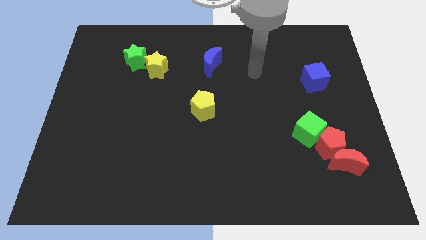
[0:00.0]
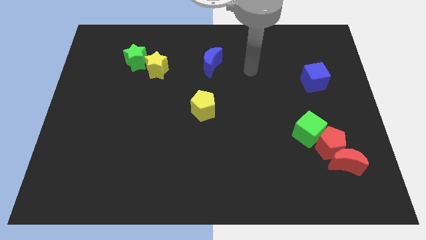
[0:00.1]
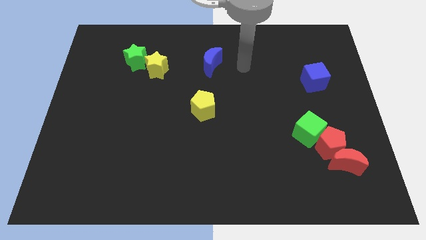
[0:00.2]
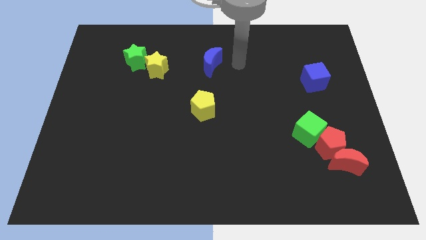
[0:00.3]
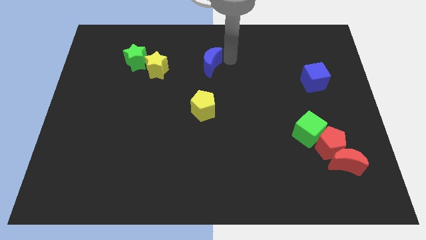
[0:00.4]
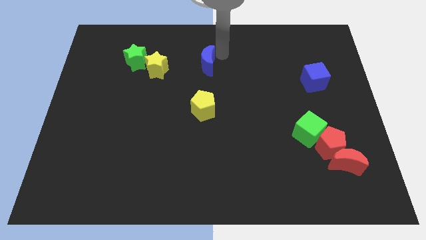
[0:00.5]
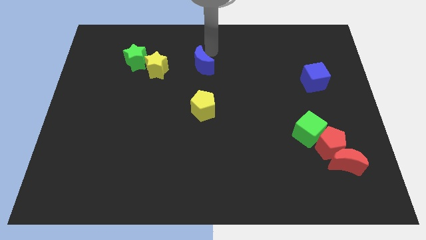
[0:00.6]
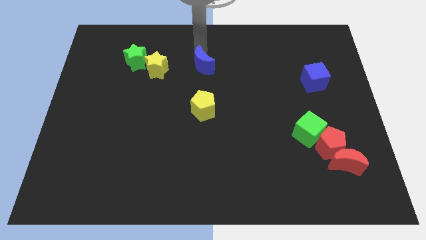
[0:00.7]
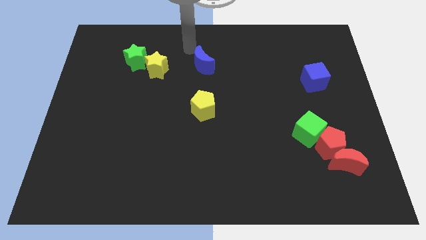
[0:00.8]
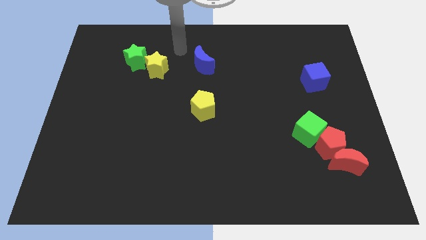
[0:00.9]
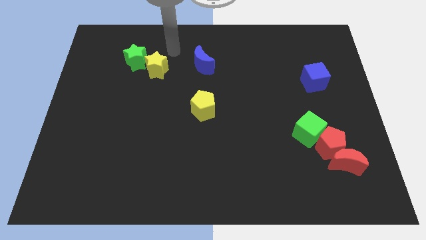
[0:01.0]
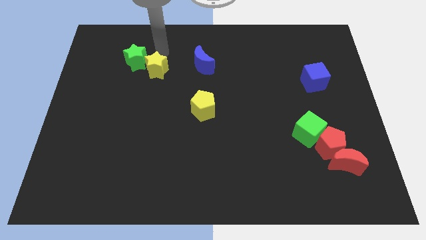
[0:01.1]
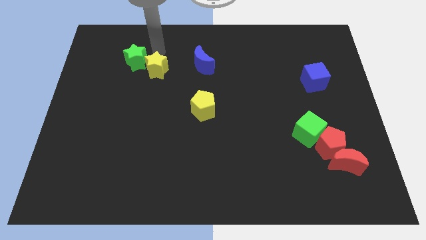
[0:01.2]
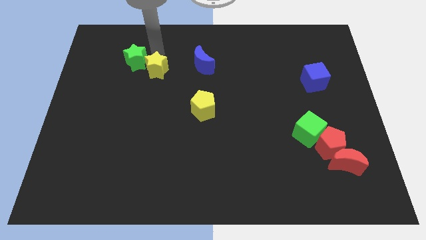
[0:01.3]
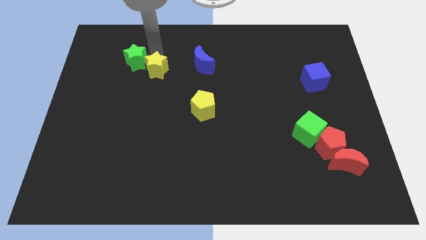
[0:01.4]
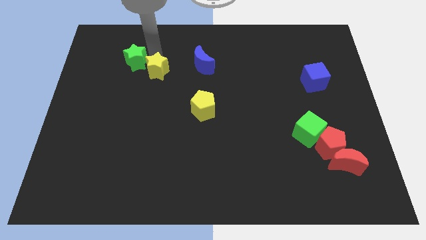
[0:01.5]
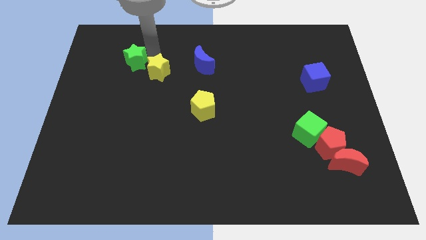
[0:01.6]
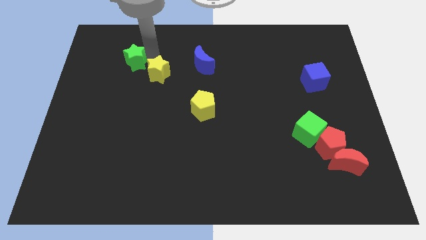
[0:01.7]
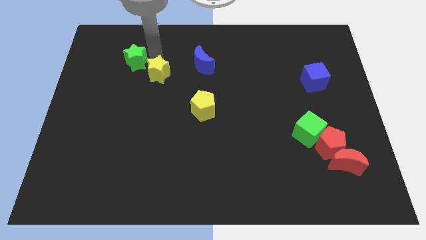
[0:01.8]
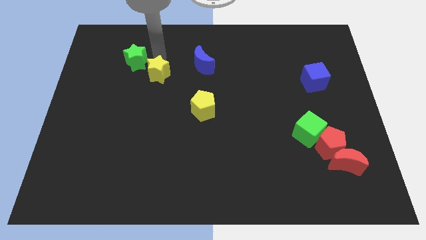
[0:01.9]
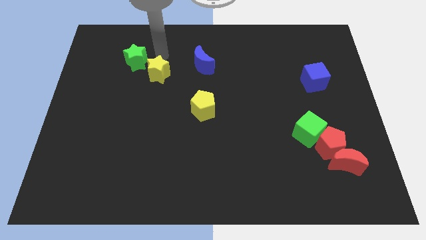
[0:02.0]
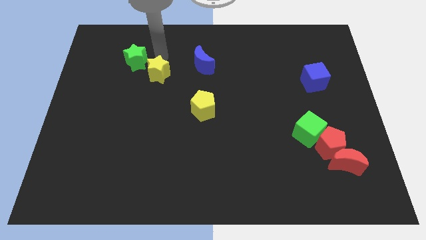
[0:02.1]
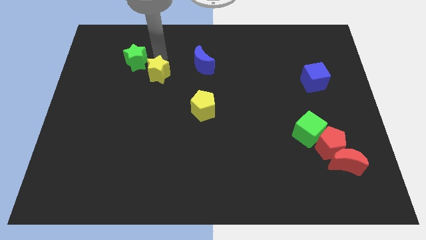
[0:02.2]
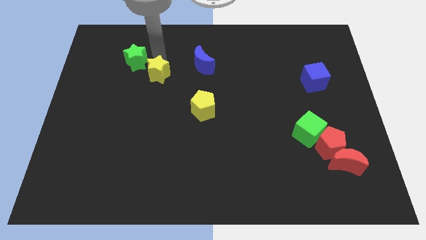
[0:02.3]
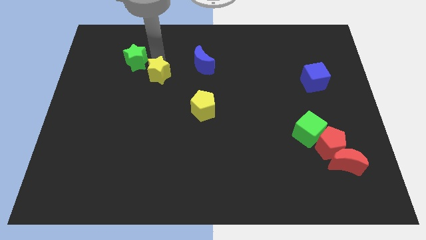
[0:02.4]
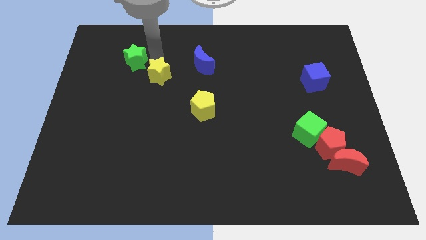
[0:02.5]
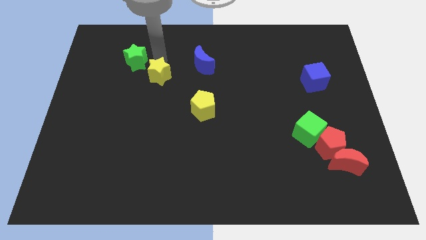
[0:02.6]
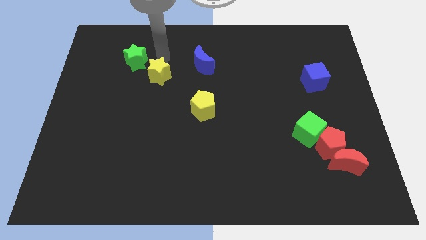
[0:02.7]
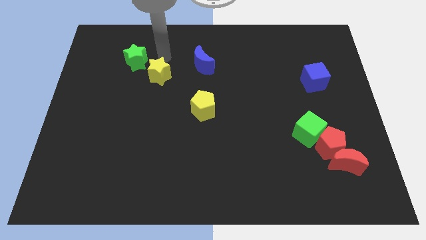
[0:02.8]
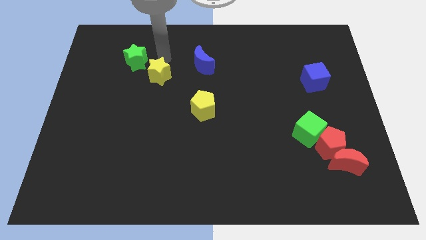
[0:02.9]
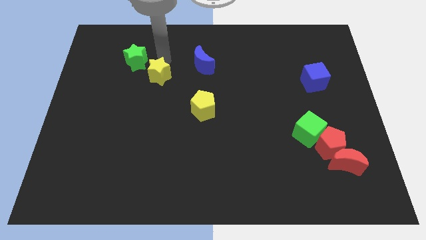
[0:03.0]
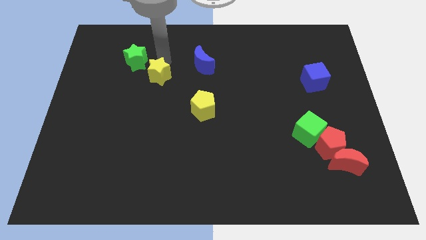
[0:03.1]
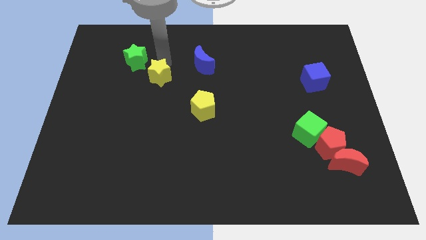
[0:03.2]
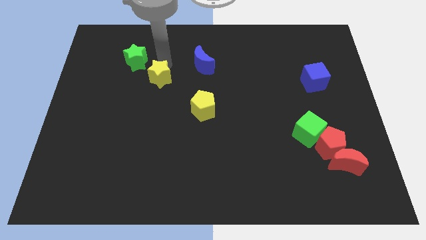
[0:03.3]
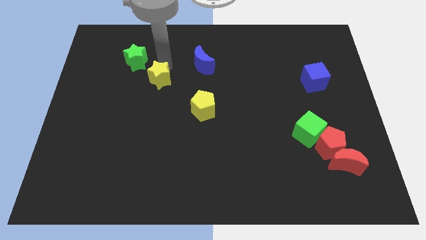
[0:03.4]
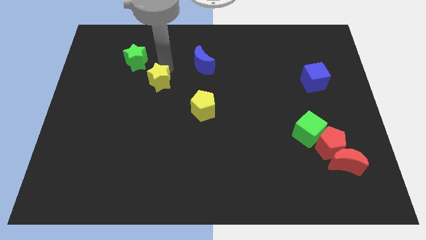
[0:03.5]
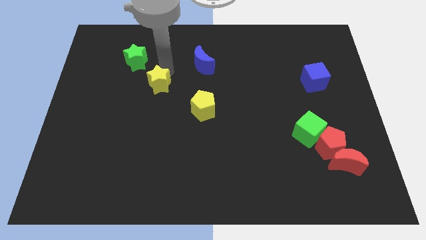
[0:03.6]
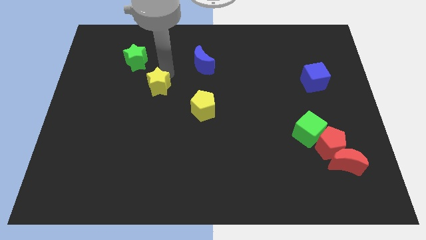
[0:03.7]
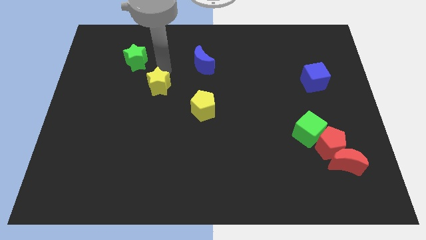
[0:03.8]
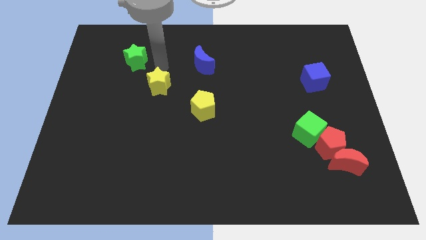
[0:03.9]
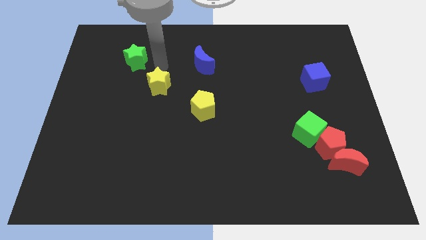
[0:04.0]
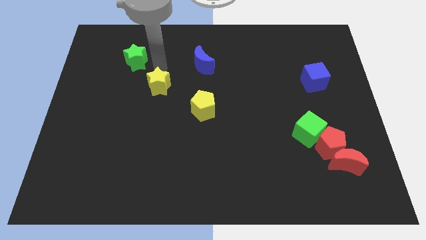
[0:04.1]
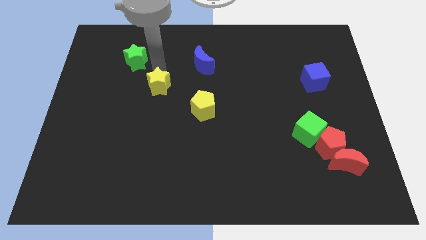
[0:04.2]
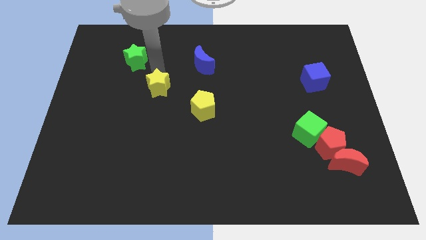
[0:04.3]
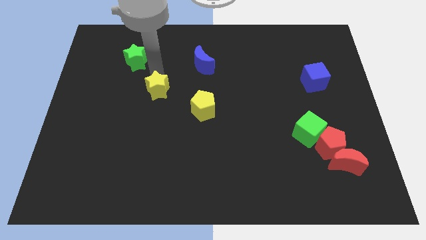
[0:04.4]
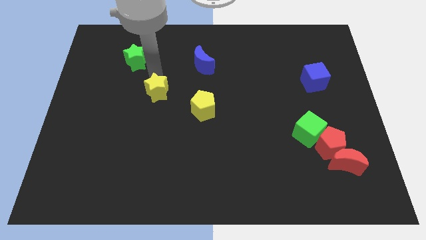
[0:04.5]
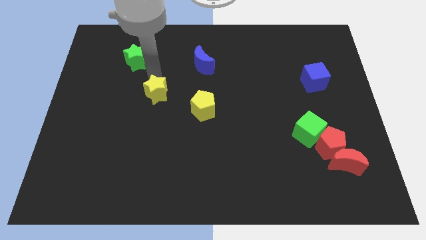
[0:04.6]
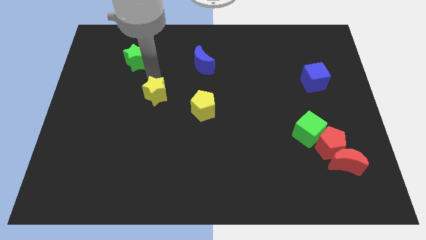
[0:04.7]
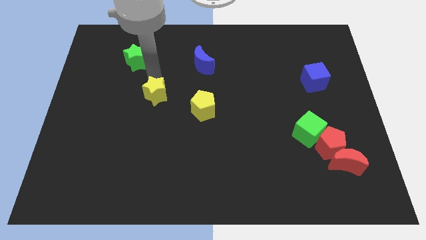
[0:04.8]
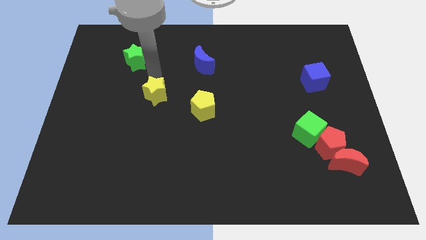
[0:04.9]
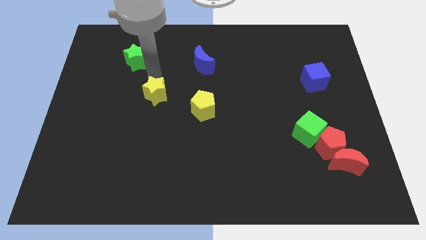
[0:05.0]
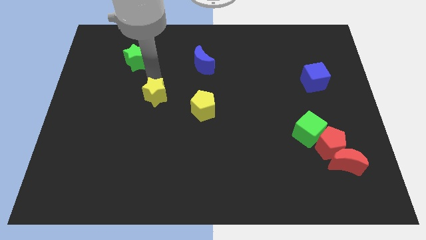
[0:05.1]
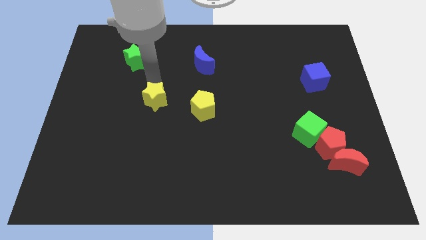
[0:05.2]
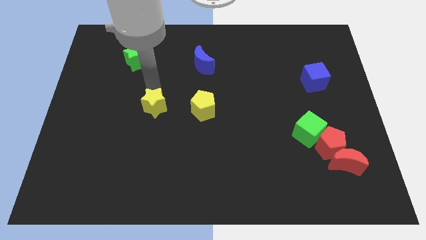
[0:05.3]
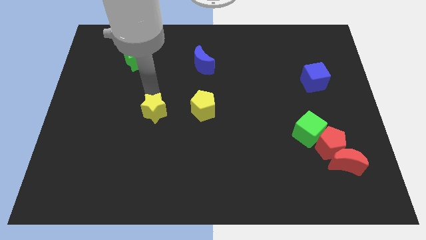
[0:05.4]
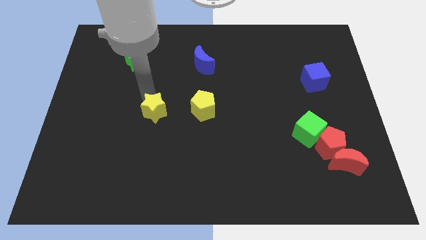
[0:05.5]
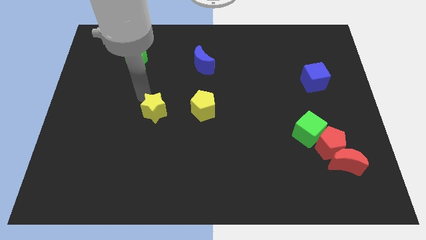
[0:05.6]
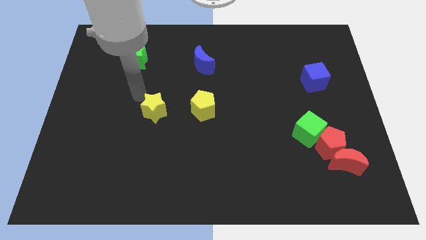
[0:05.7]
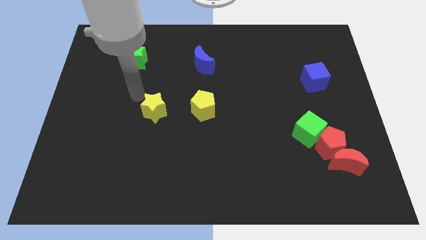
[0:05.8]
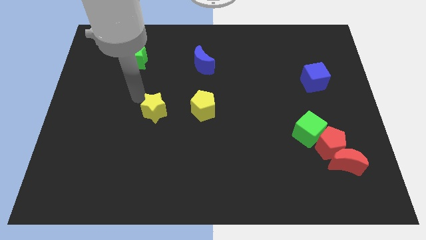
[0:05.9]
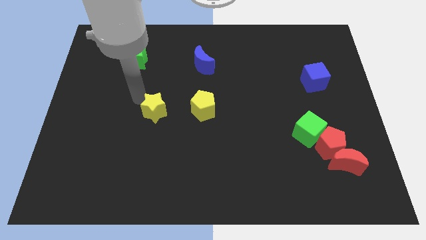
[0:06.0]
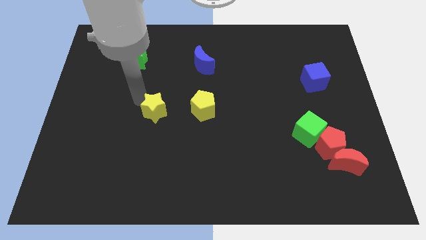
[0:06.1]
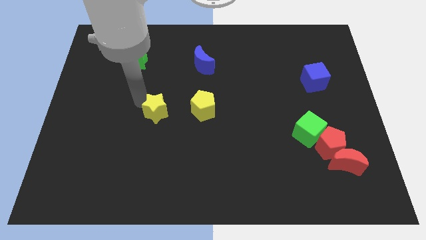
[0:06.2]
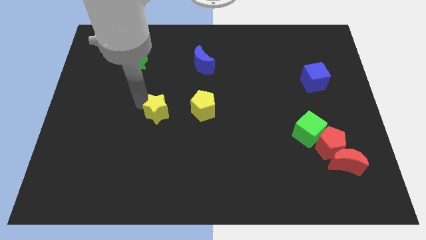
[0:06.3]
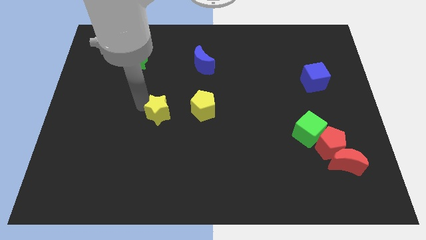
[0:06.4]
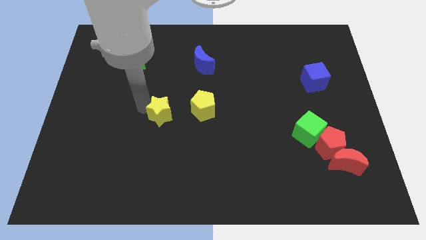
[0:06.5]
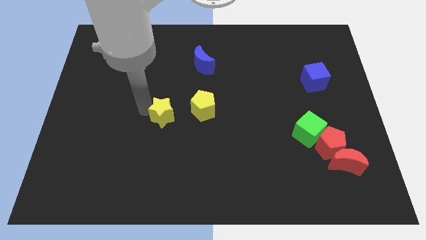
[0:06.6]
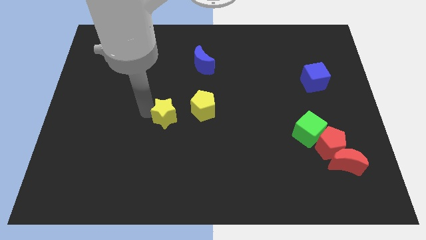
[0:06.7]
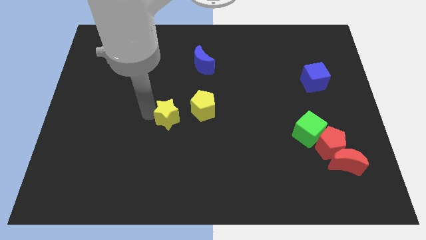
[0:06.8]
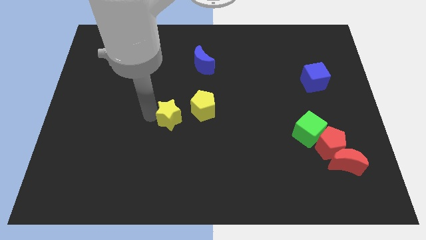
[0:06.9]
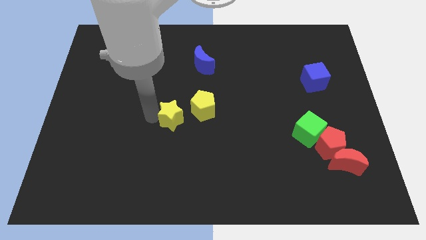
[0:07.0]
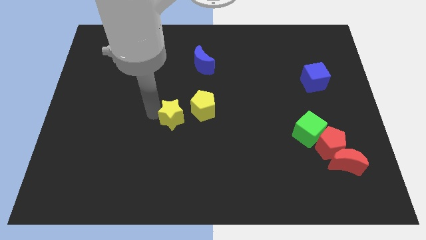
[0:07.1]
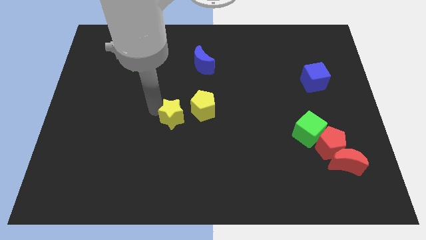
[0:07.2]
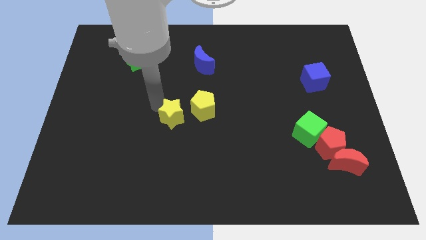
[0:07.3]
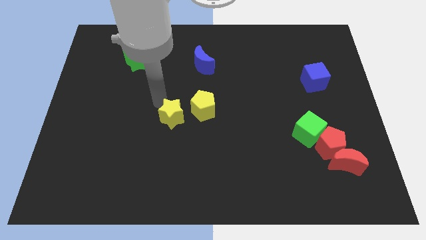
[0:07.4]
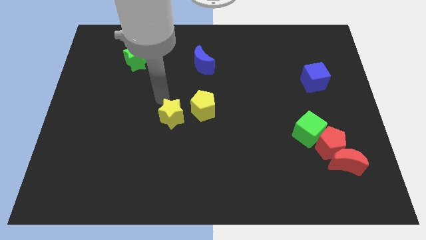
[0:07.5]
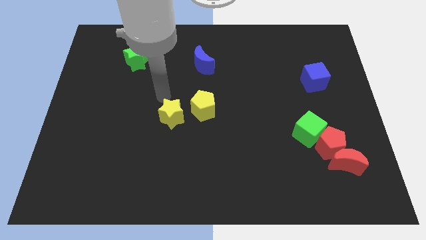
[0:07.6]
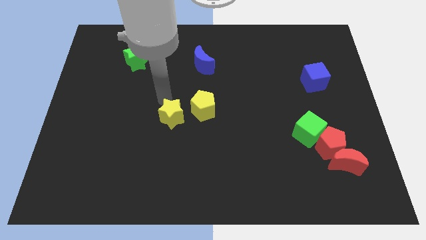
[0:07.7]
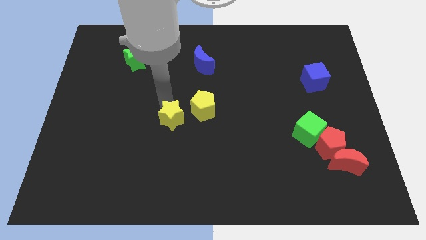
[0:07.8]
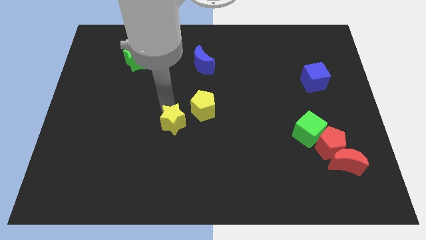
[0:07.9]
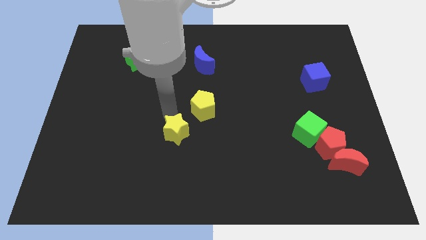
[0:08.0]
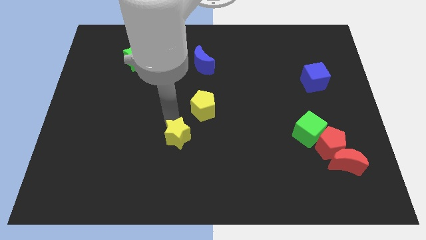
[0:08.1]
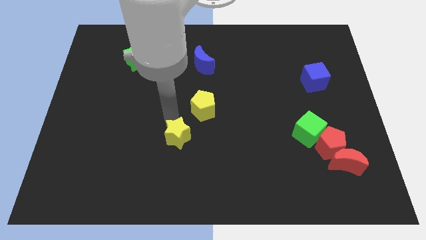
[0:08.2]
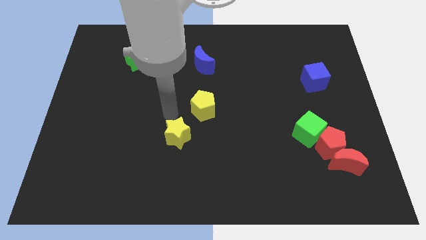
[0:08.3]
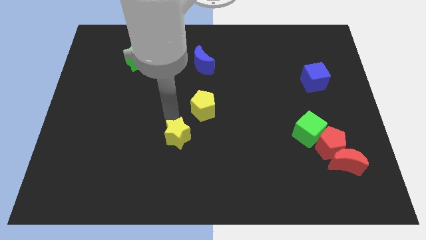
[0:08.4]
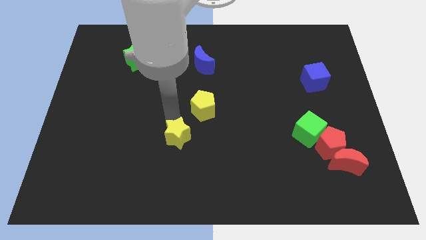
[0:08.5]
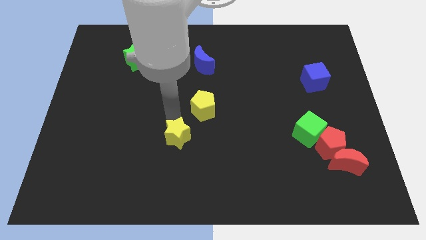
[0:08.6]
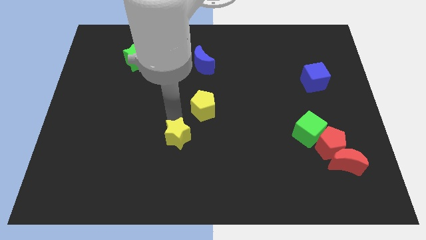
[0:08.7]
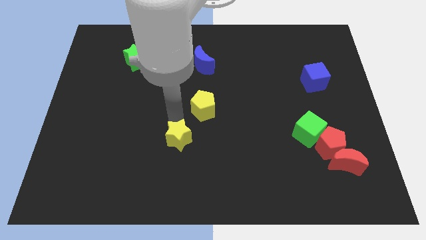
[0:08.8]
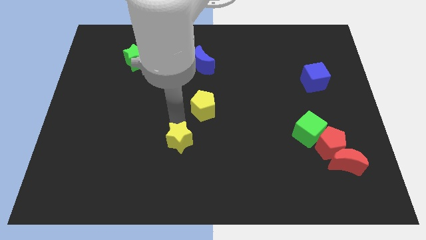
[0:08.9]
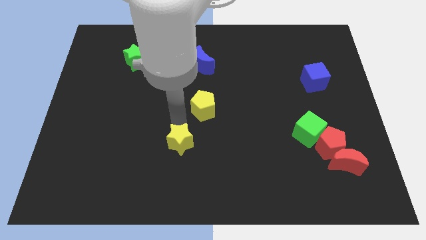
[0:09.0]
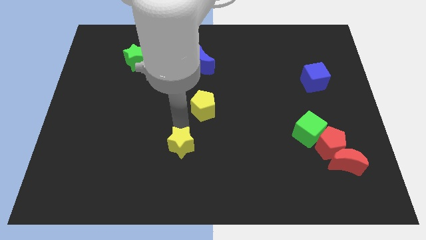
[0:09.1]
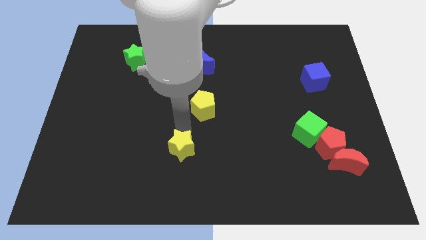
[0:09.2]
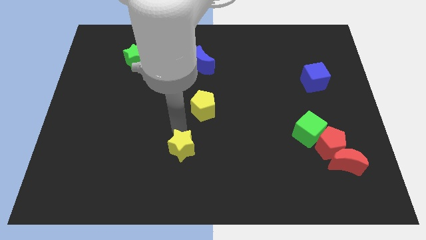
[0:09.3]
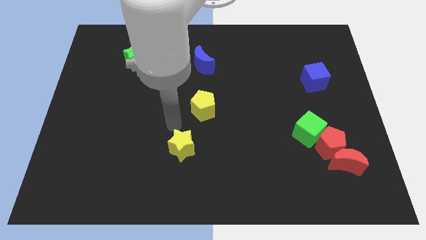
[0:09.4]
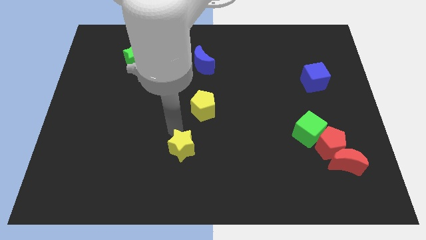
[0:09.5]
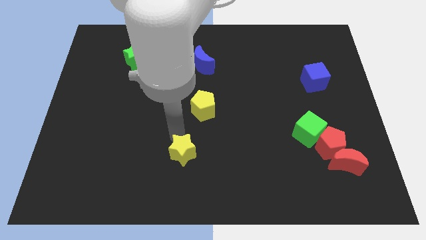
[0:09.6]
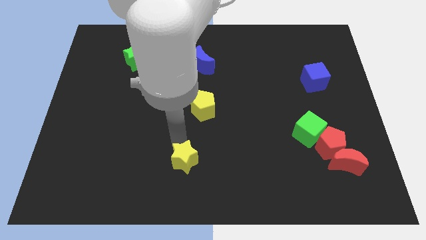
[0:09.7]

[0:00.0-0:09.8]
move the yellow star to the bottom
